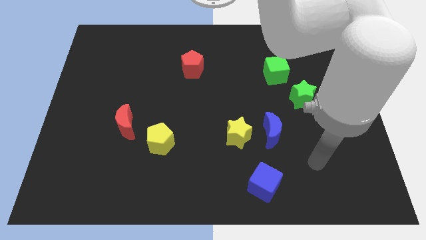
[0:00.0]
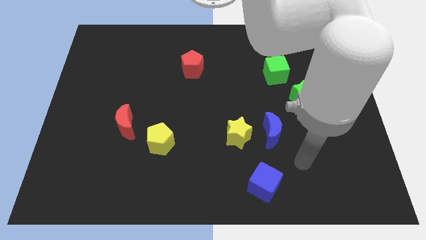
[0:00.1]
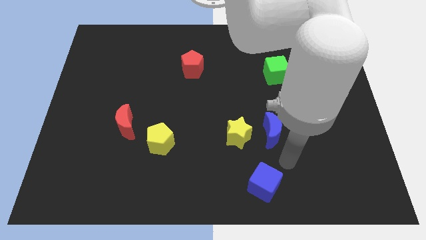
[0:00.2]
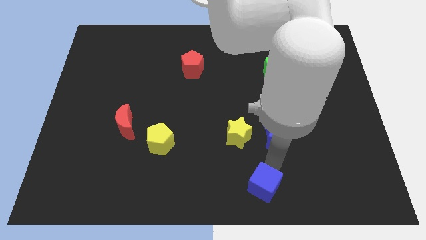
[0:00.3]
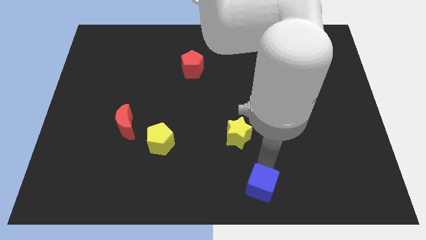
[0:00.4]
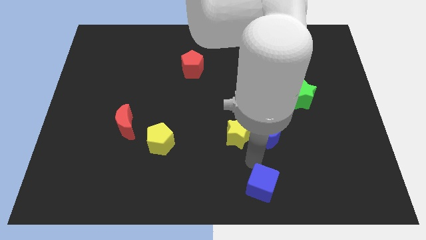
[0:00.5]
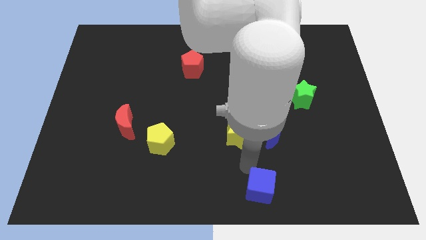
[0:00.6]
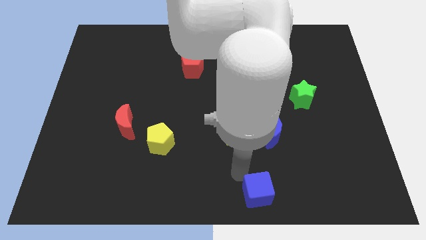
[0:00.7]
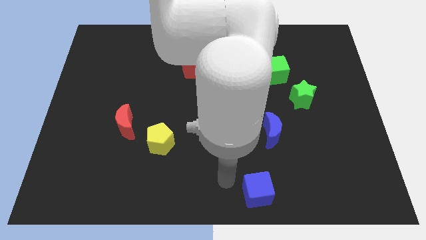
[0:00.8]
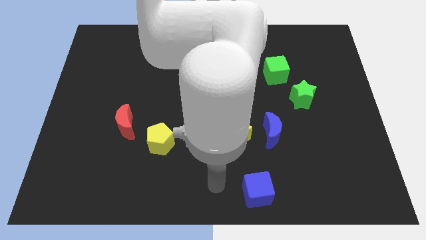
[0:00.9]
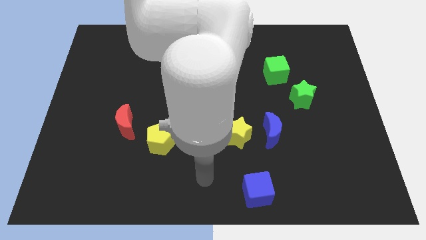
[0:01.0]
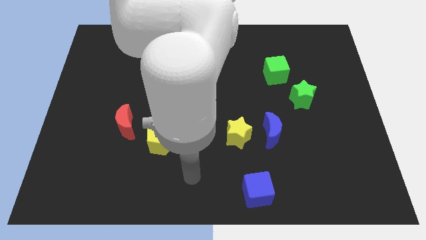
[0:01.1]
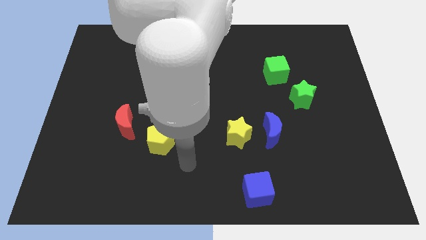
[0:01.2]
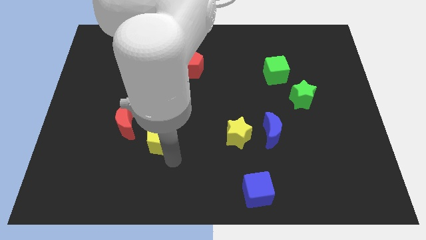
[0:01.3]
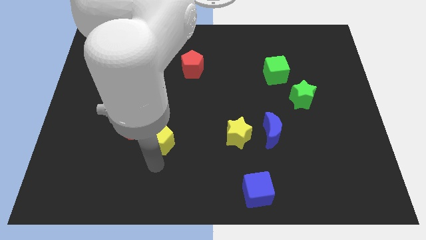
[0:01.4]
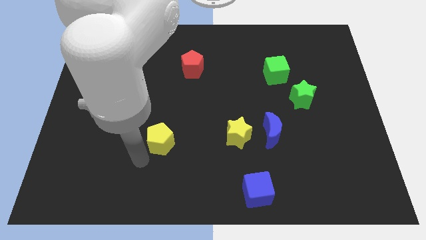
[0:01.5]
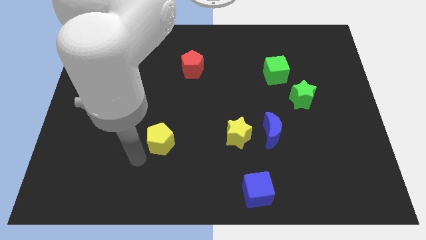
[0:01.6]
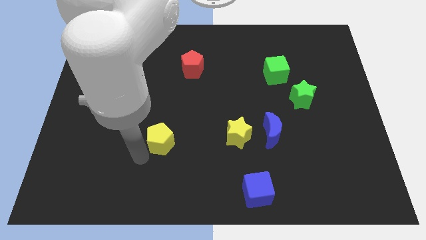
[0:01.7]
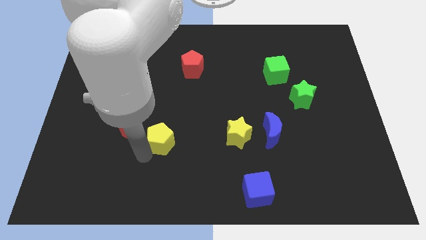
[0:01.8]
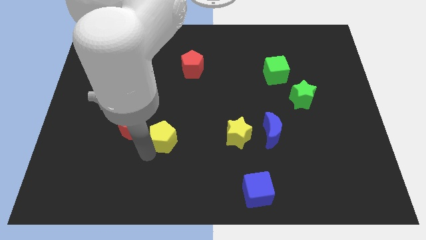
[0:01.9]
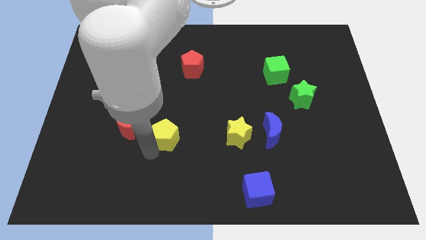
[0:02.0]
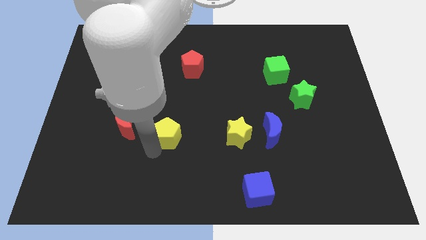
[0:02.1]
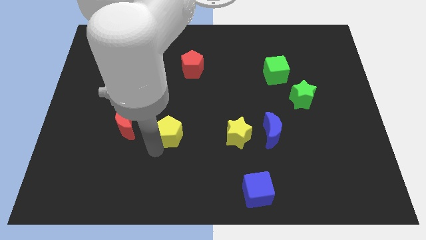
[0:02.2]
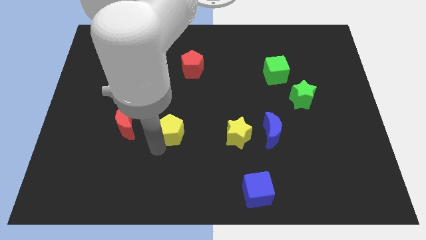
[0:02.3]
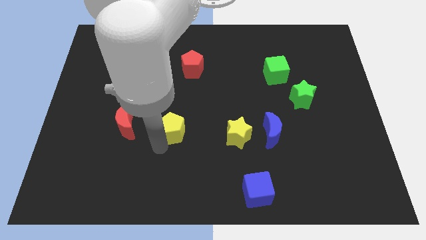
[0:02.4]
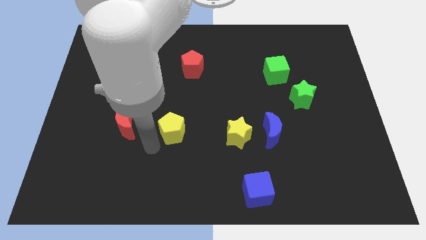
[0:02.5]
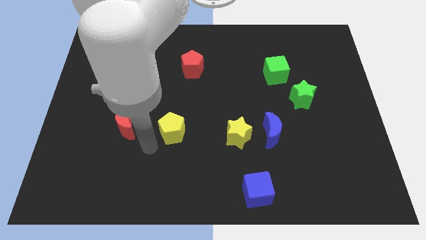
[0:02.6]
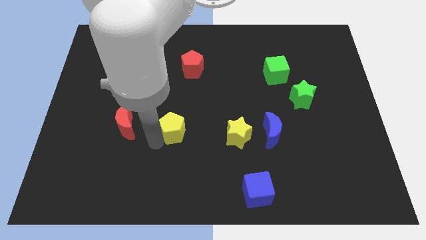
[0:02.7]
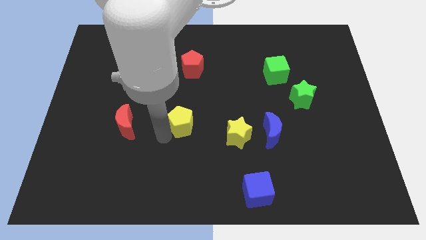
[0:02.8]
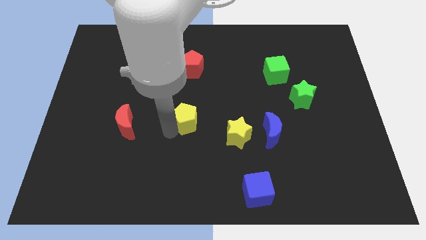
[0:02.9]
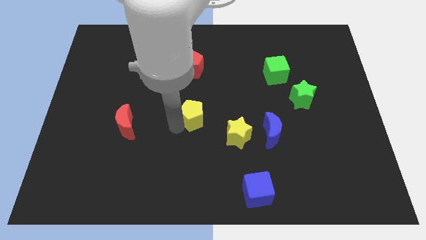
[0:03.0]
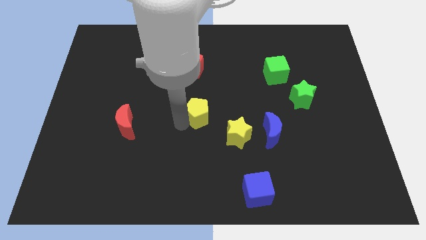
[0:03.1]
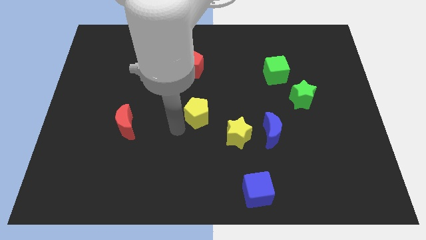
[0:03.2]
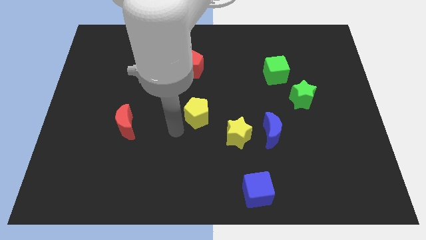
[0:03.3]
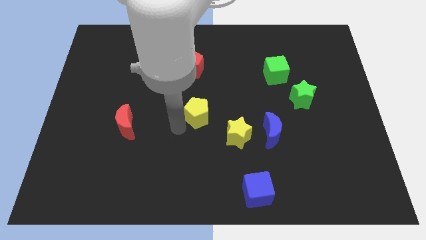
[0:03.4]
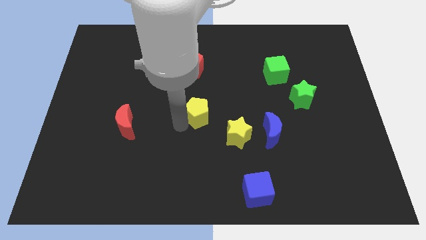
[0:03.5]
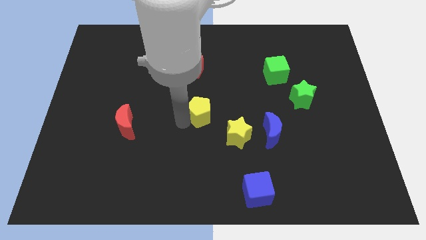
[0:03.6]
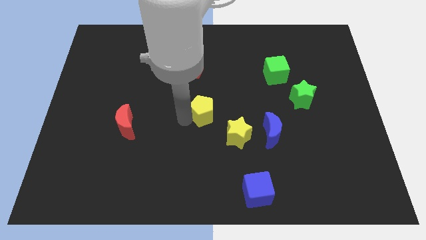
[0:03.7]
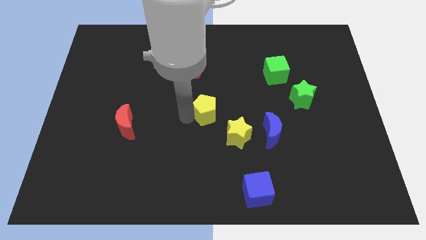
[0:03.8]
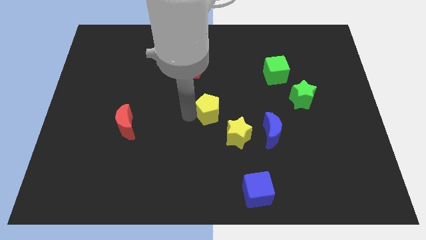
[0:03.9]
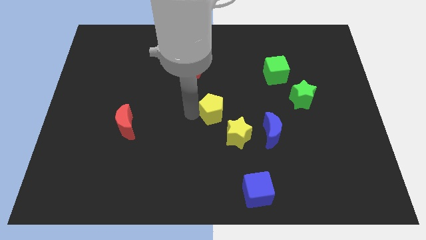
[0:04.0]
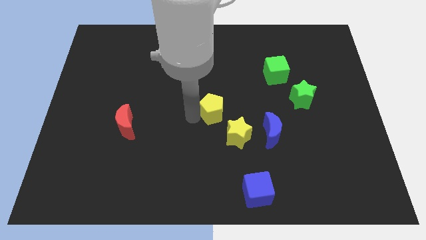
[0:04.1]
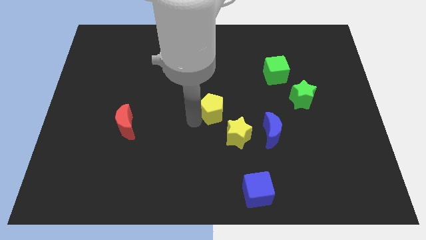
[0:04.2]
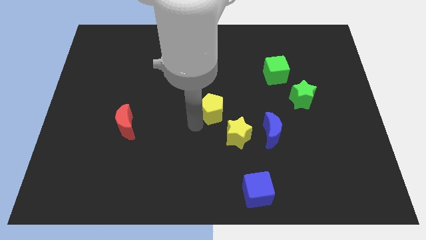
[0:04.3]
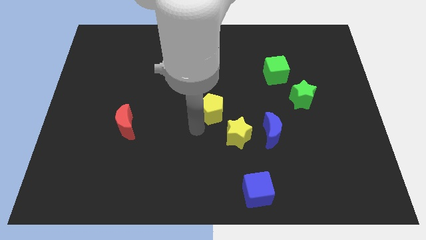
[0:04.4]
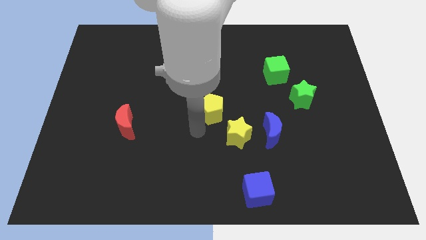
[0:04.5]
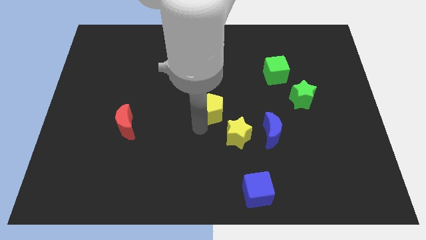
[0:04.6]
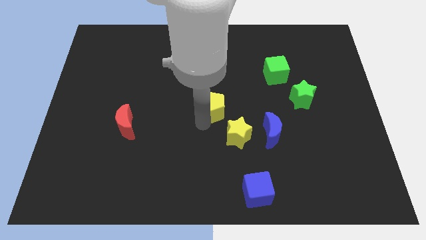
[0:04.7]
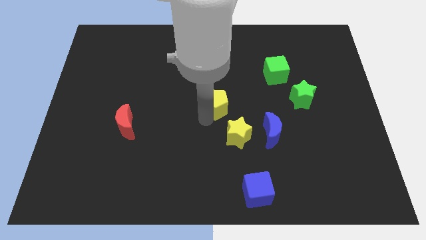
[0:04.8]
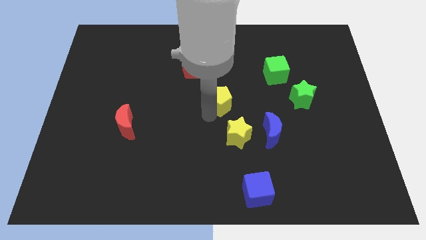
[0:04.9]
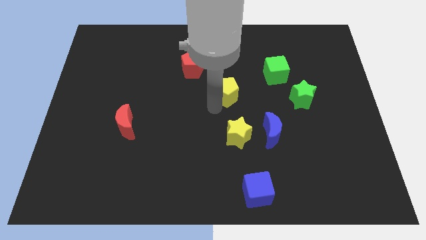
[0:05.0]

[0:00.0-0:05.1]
push the yellow pentagon diagonally upwards and to the right

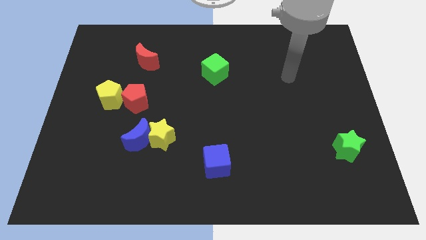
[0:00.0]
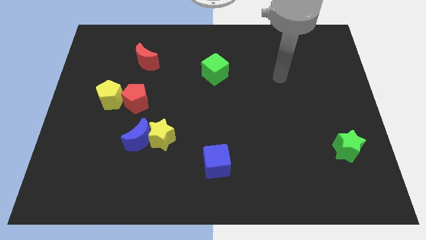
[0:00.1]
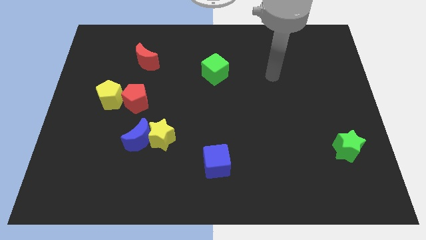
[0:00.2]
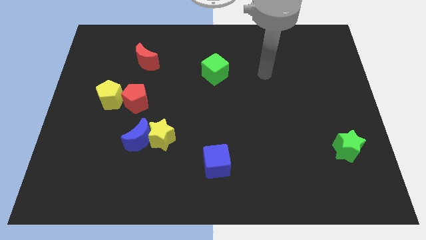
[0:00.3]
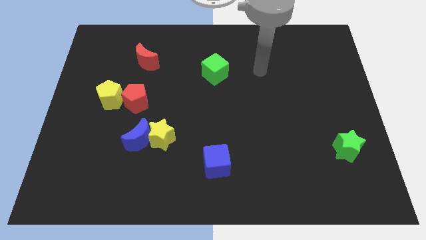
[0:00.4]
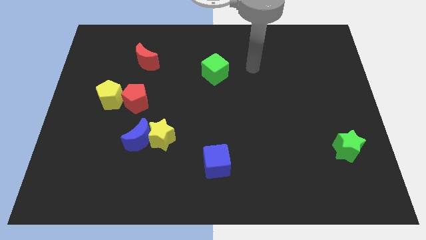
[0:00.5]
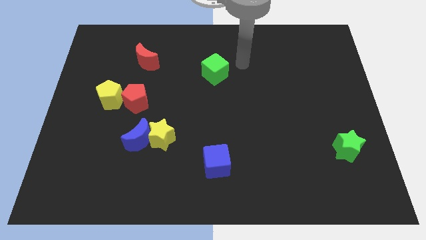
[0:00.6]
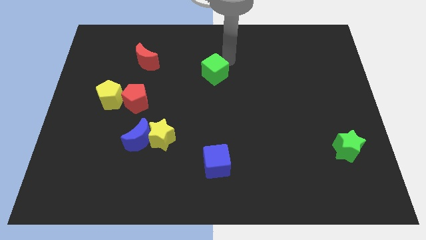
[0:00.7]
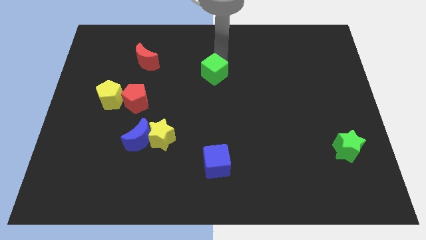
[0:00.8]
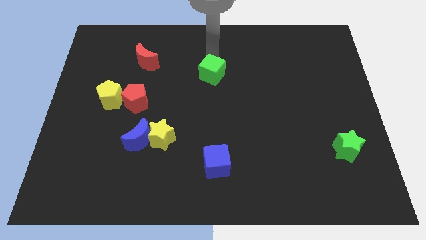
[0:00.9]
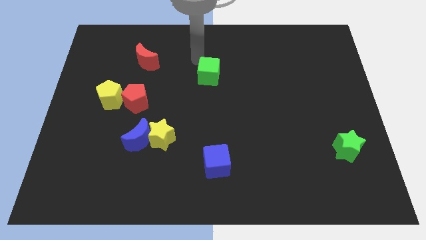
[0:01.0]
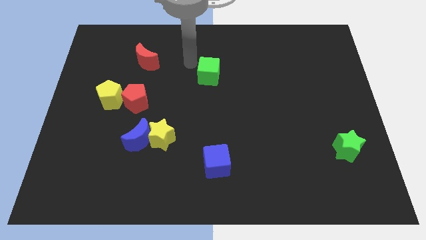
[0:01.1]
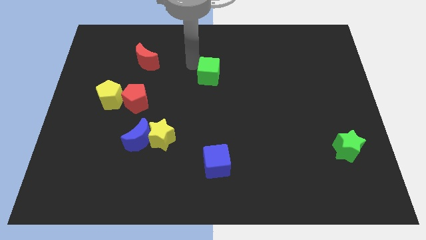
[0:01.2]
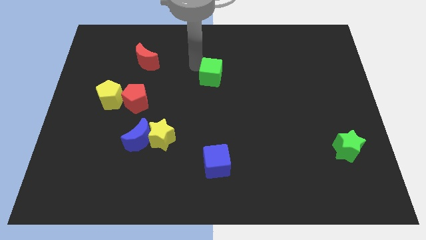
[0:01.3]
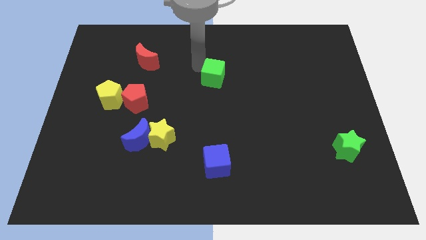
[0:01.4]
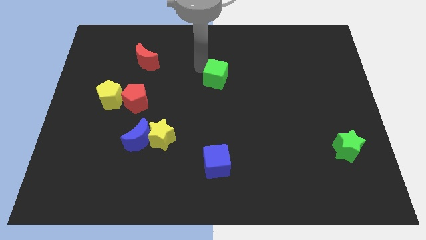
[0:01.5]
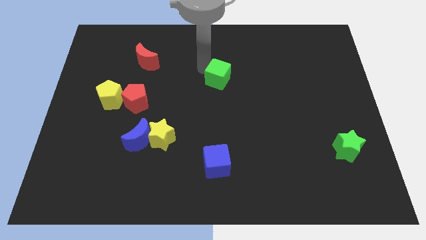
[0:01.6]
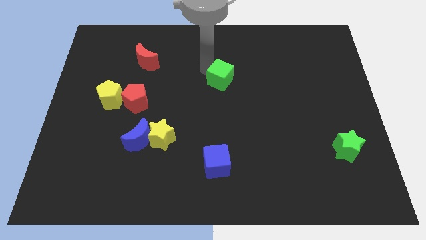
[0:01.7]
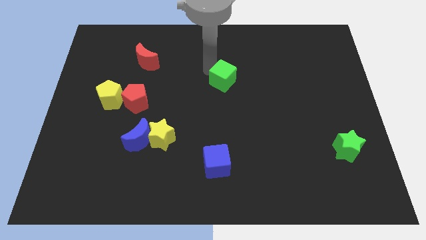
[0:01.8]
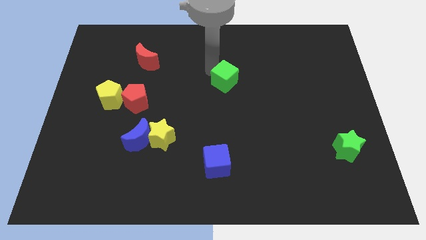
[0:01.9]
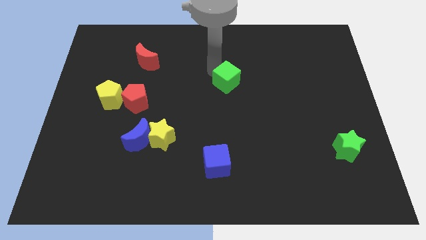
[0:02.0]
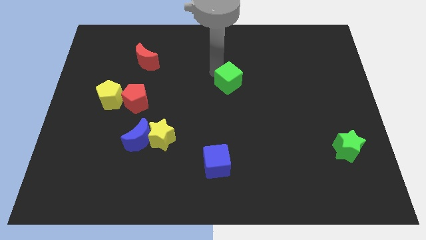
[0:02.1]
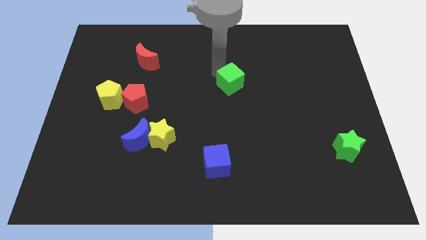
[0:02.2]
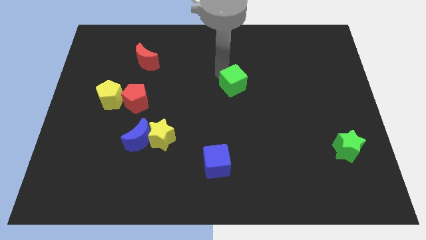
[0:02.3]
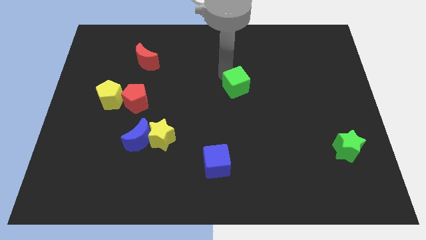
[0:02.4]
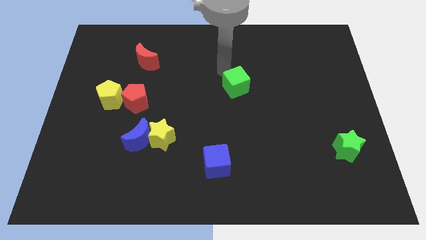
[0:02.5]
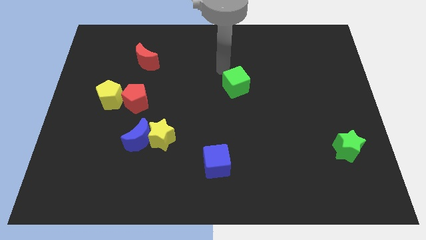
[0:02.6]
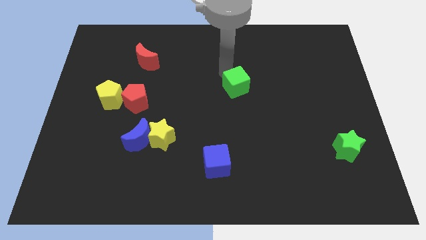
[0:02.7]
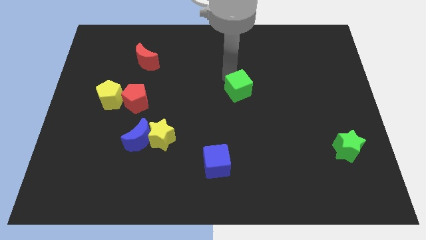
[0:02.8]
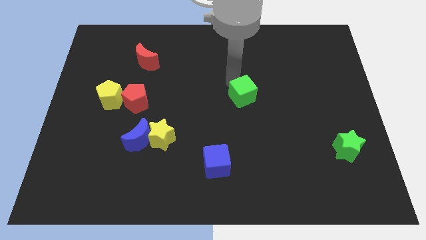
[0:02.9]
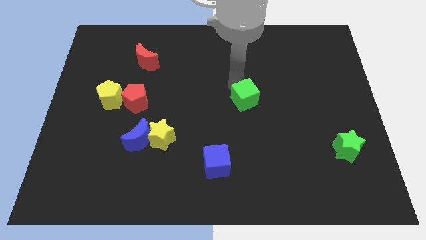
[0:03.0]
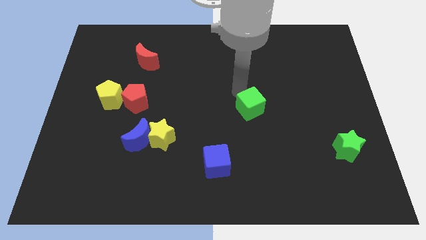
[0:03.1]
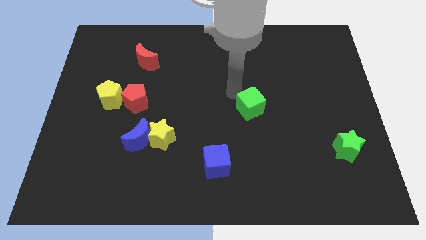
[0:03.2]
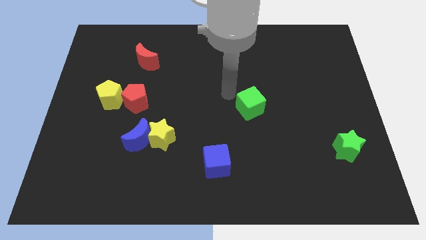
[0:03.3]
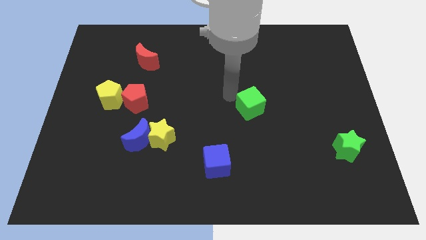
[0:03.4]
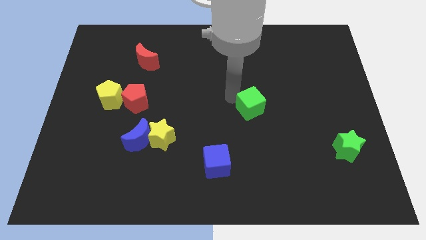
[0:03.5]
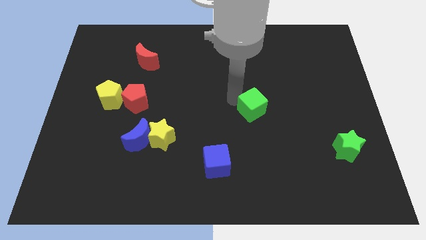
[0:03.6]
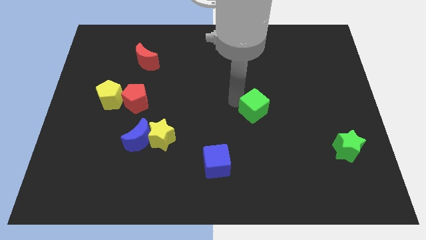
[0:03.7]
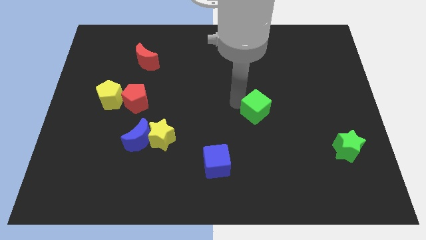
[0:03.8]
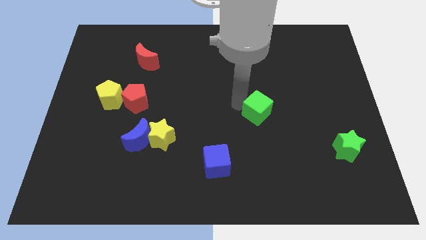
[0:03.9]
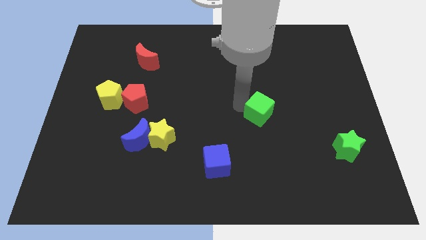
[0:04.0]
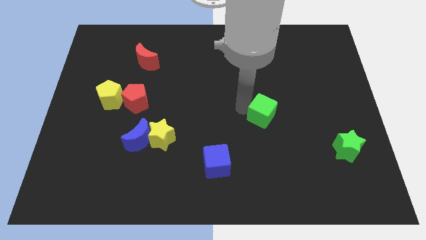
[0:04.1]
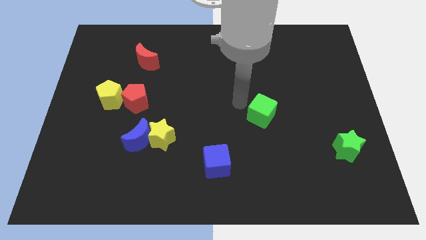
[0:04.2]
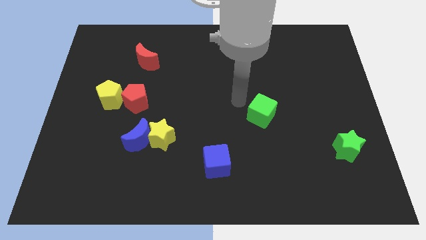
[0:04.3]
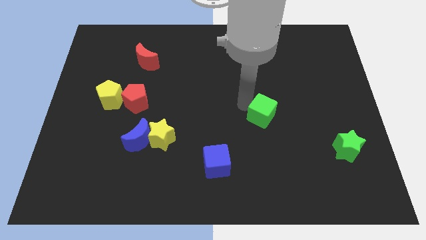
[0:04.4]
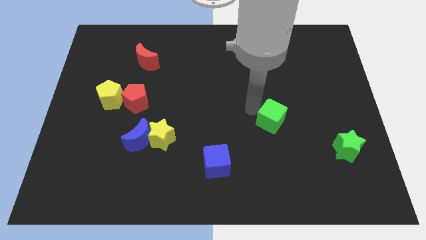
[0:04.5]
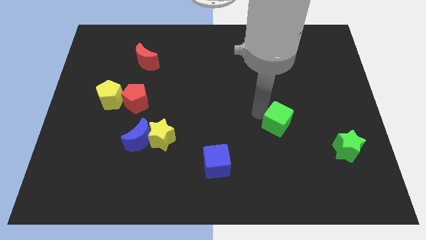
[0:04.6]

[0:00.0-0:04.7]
slide the green cube down and right
